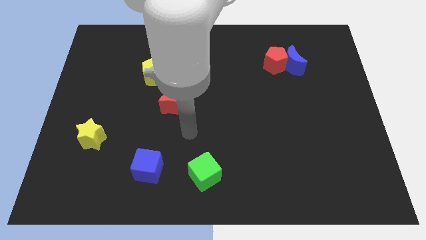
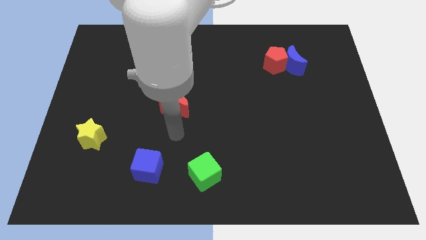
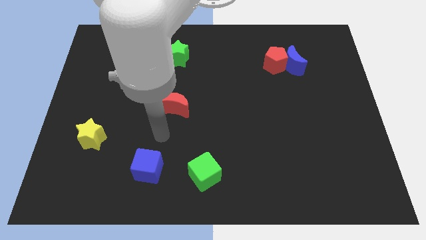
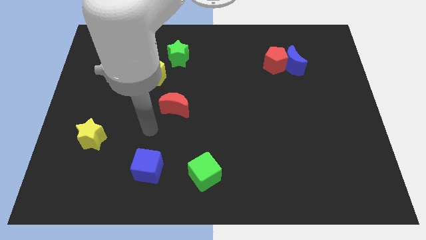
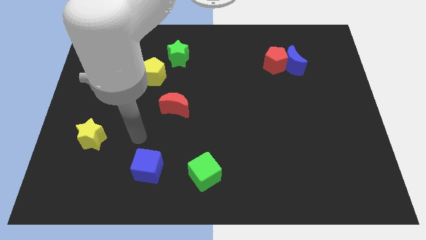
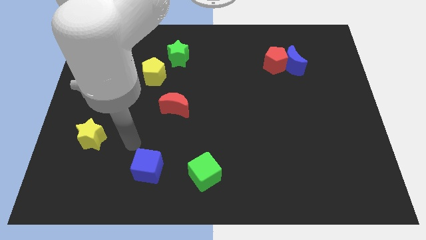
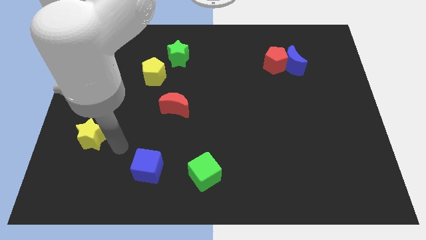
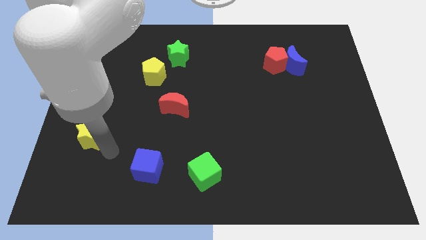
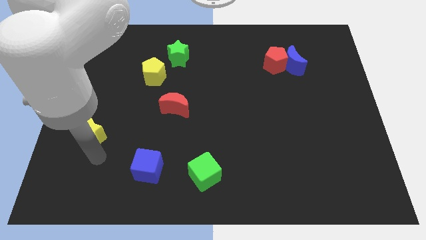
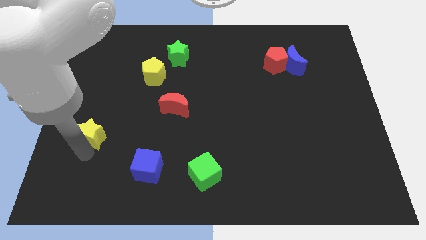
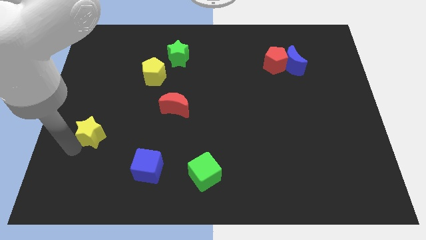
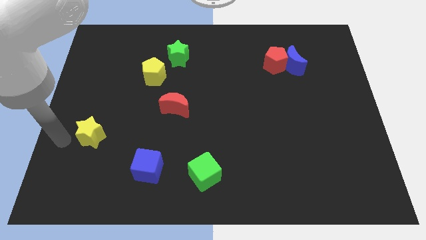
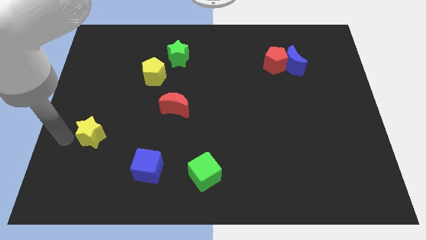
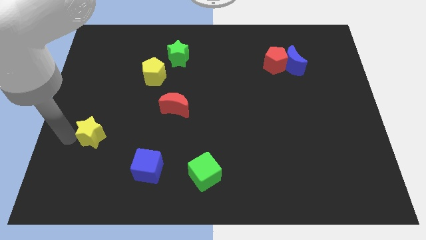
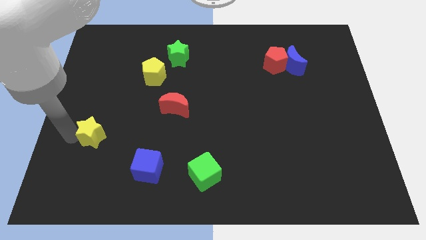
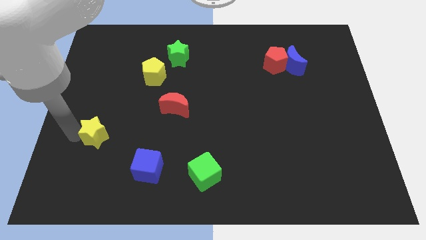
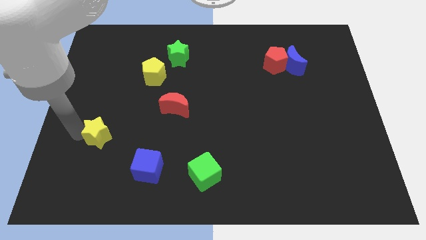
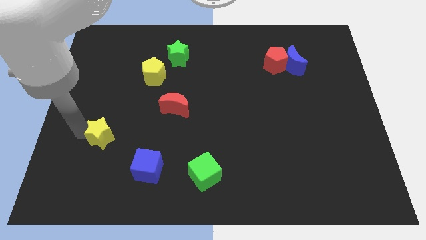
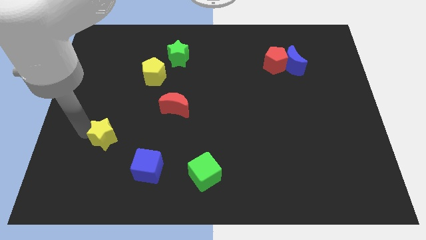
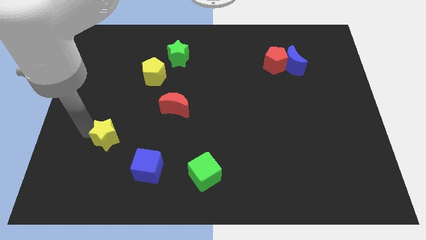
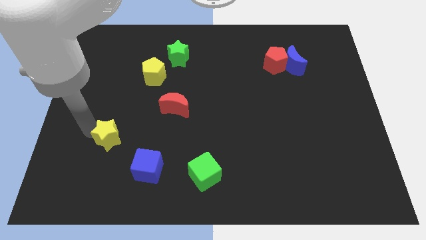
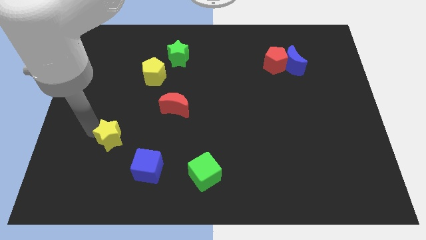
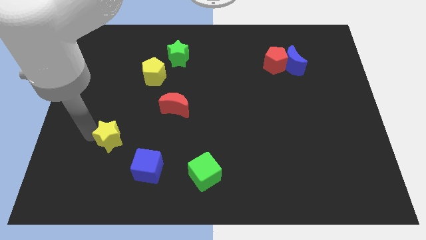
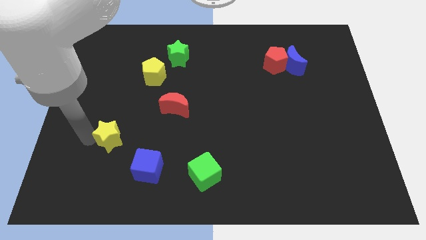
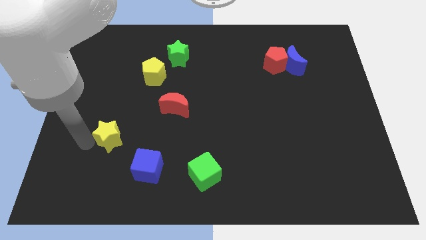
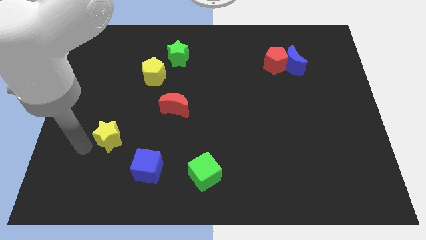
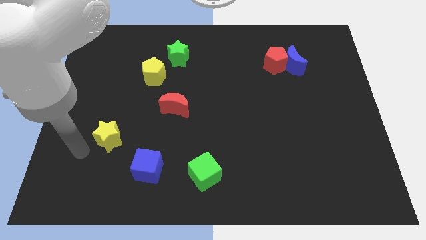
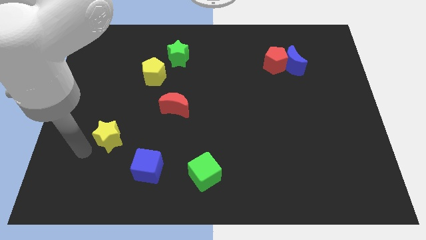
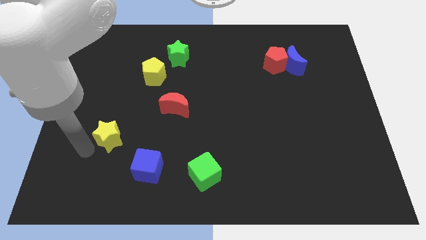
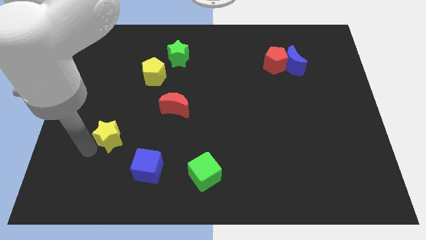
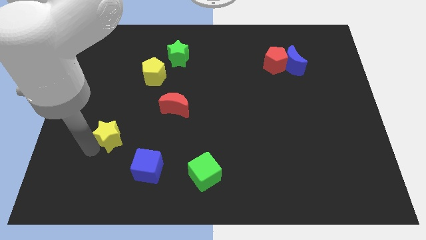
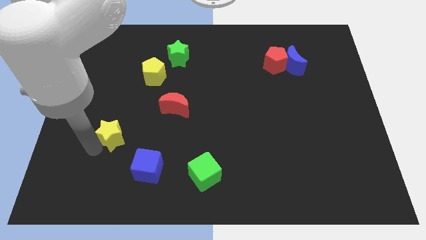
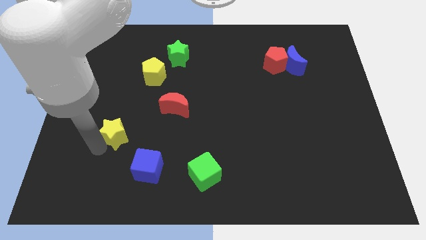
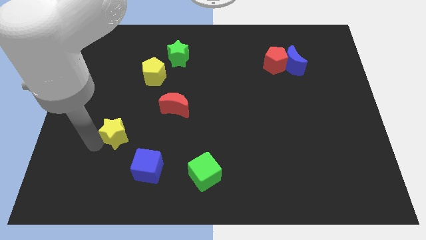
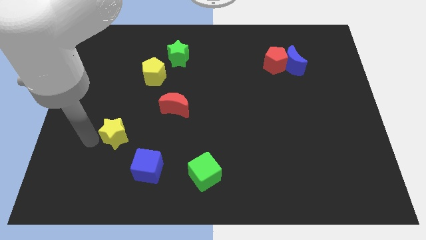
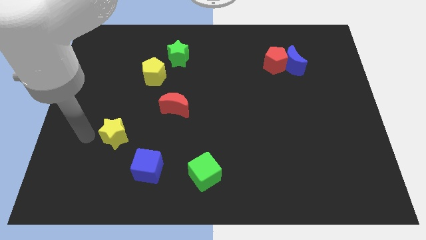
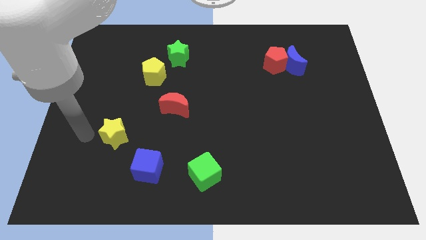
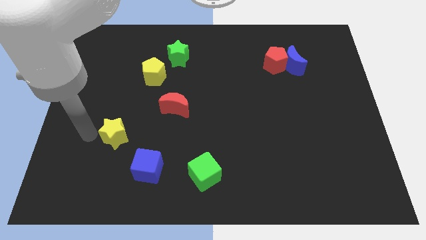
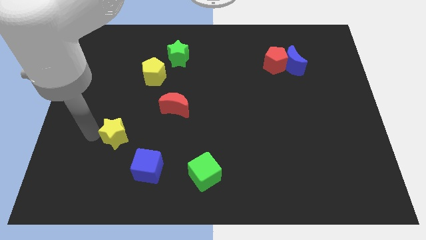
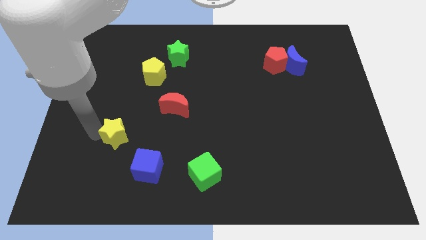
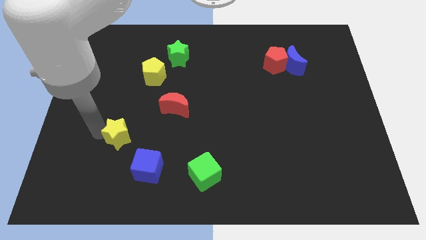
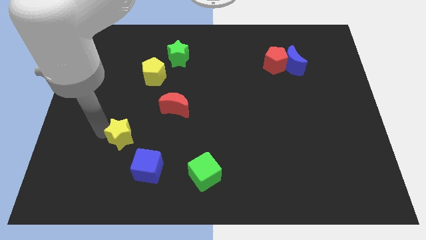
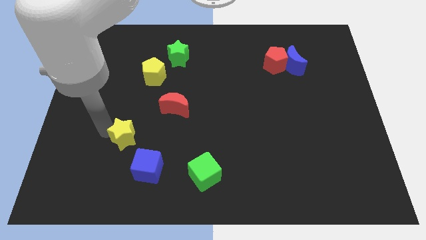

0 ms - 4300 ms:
slightly push the yellow star right

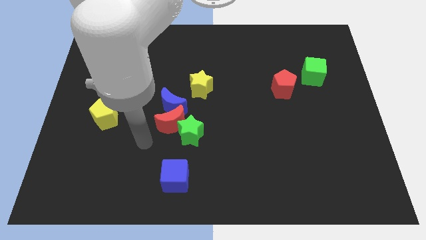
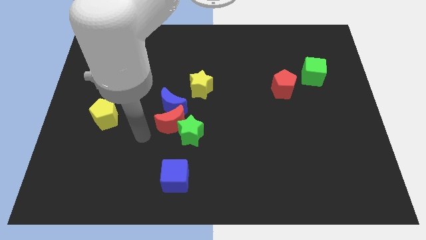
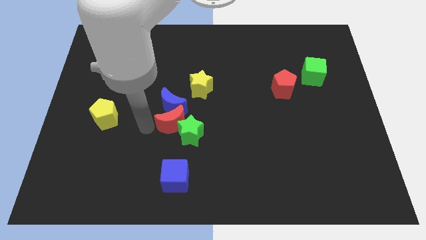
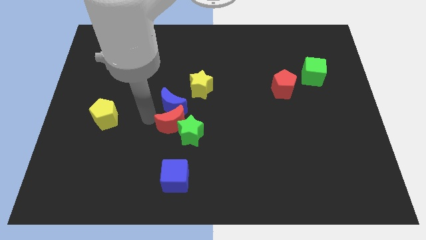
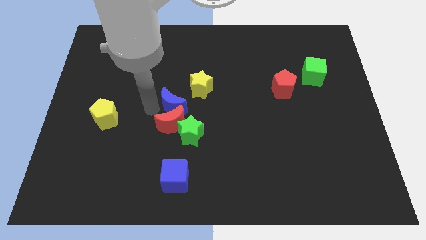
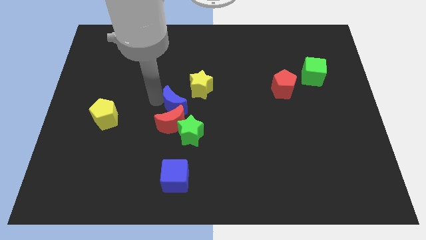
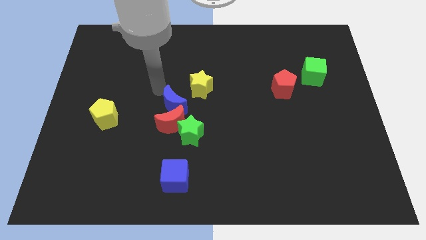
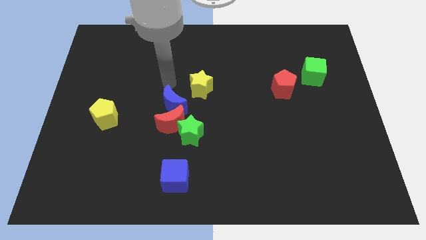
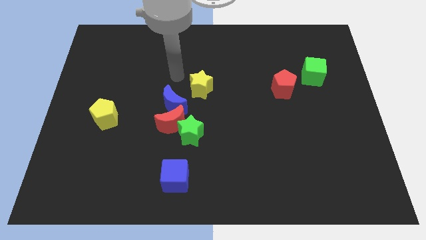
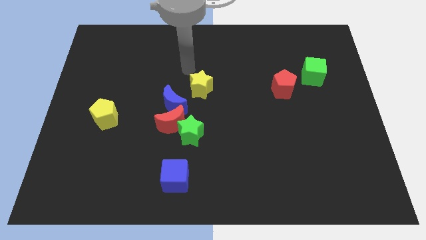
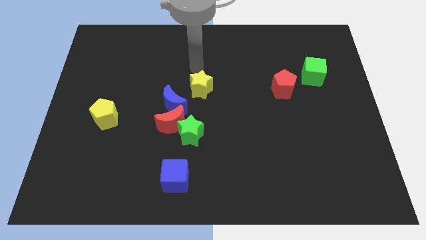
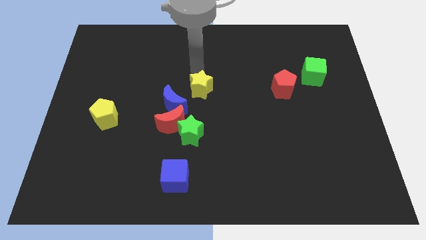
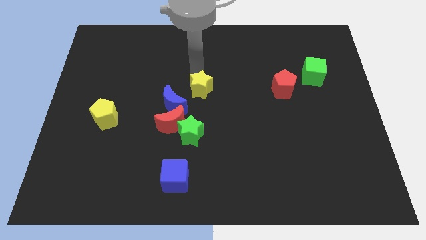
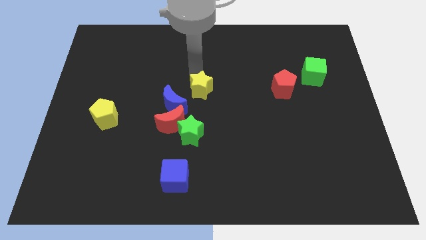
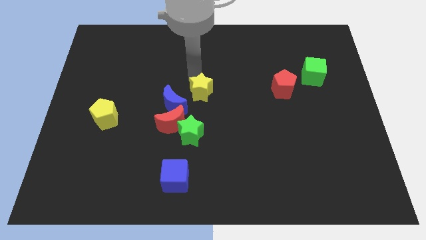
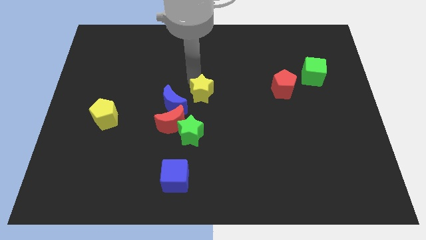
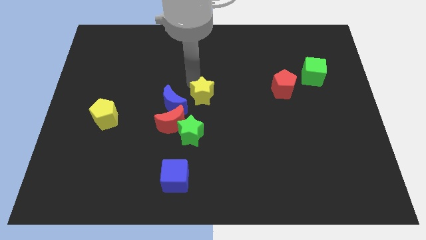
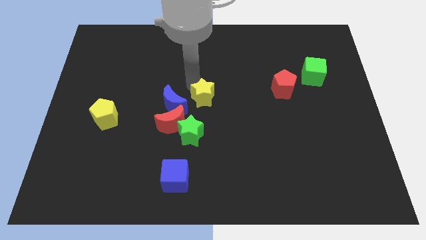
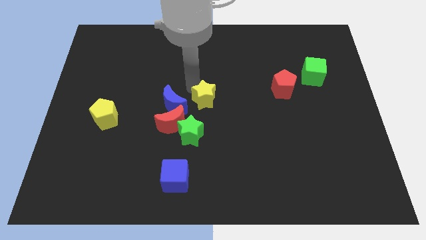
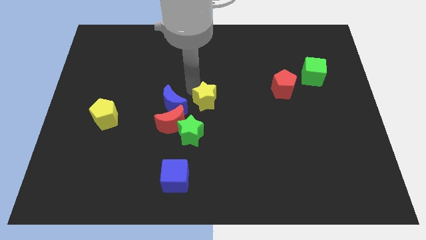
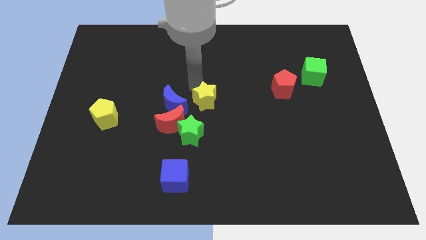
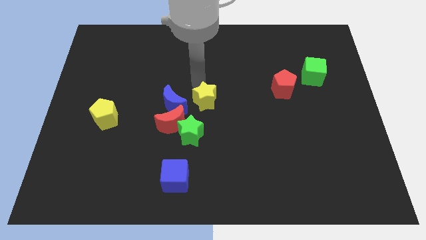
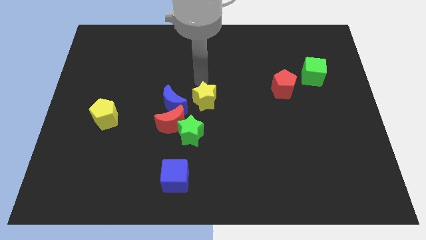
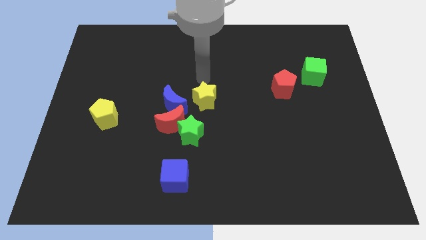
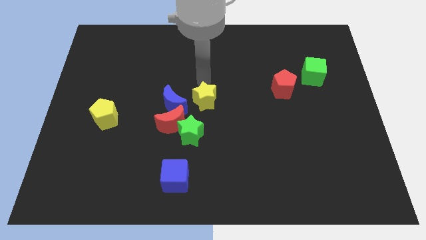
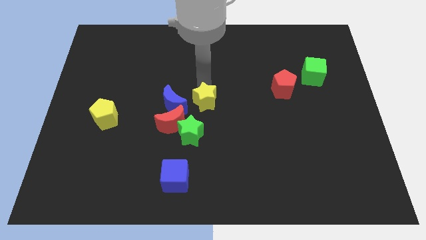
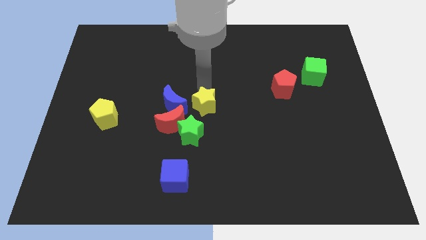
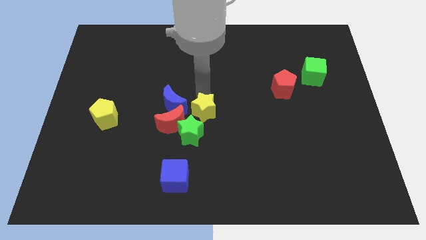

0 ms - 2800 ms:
push the yellow star a bit downwards

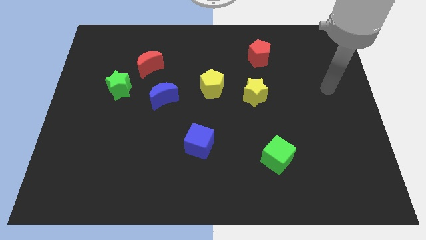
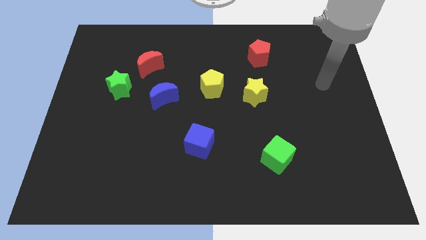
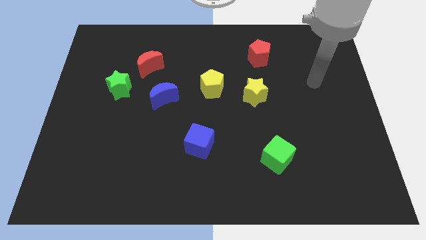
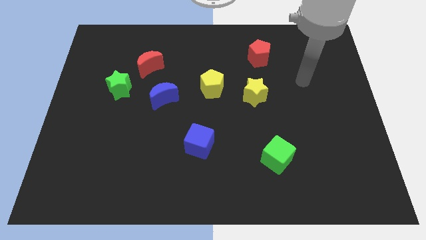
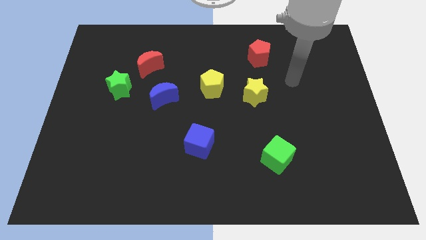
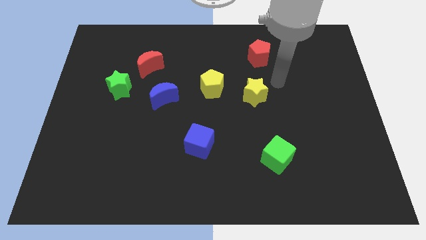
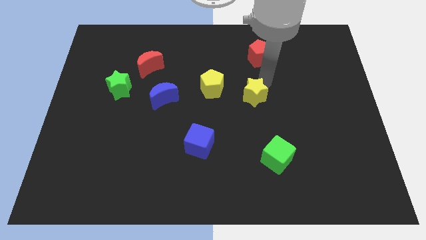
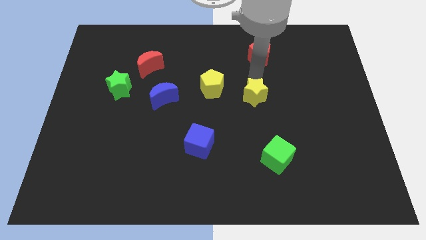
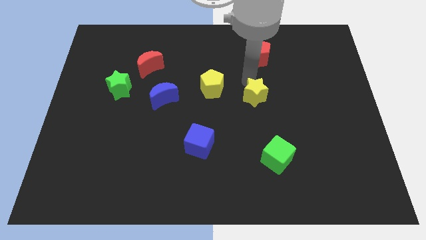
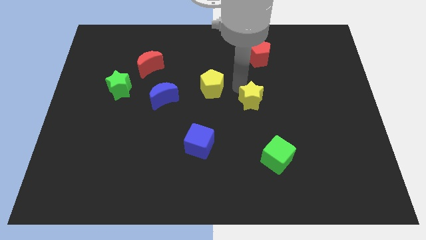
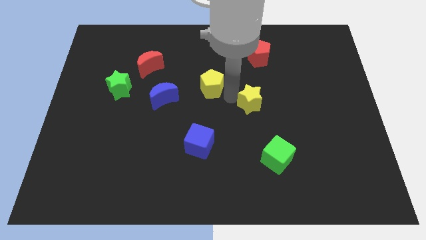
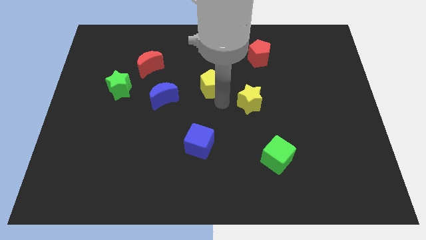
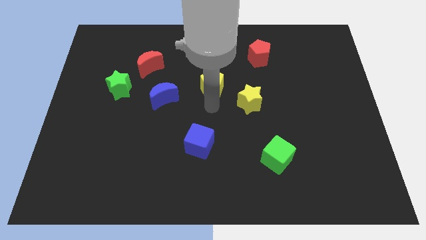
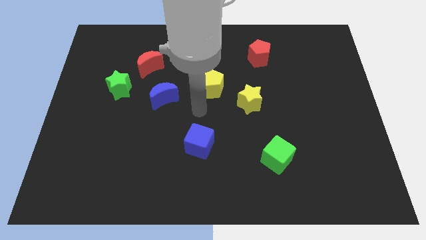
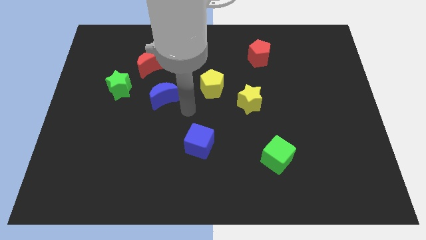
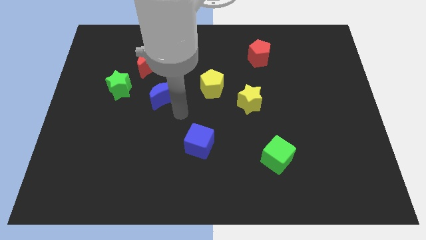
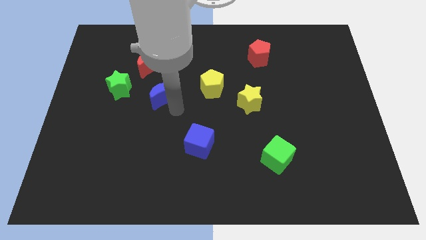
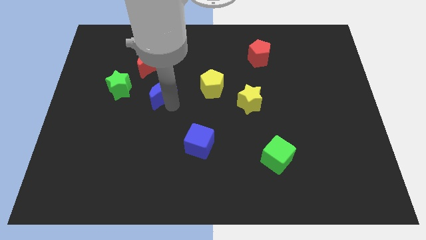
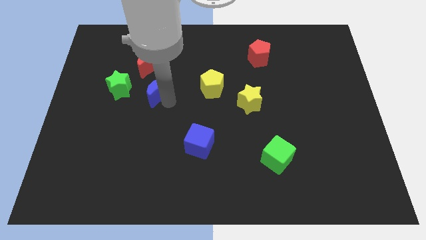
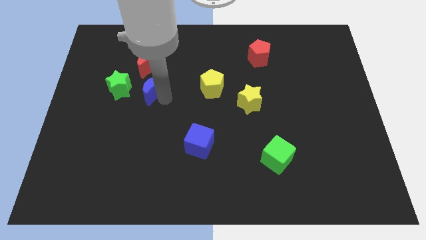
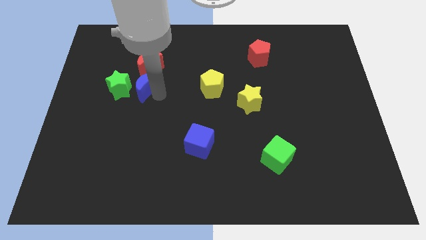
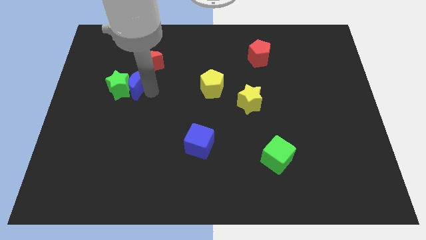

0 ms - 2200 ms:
slightly slide the blue moon diagonally upwards and left
